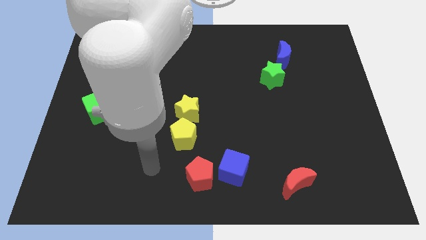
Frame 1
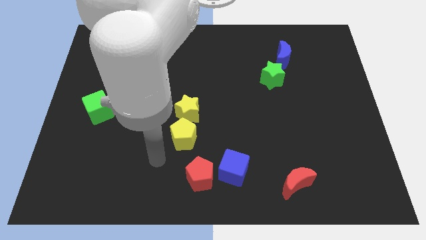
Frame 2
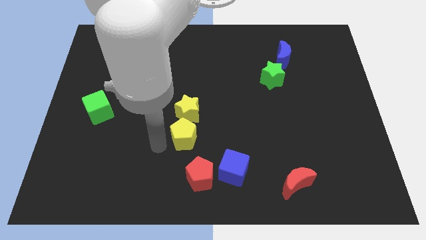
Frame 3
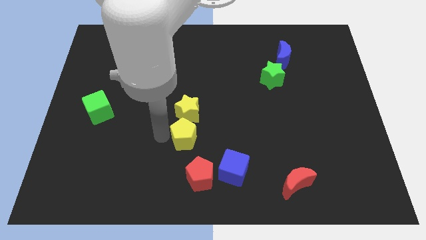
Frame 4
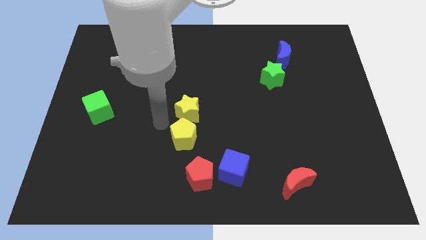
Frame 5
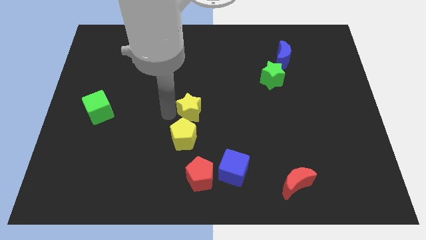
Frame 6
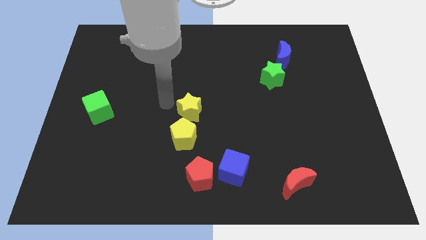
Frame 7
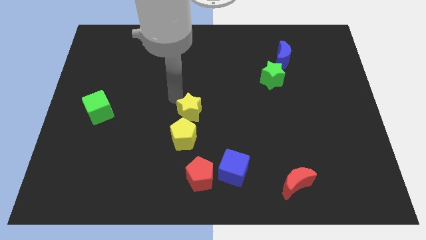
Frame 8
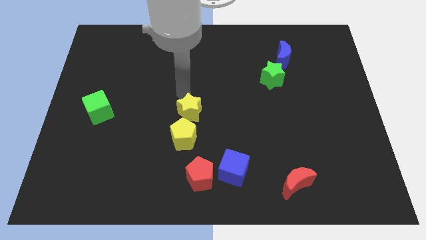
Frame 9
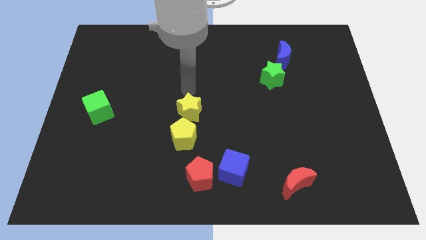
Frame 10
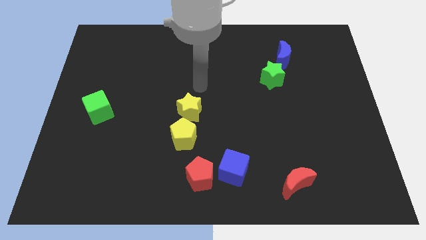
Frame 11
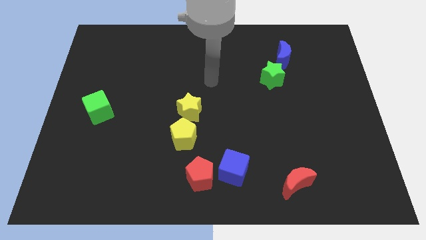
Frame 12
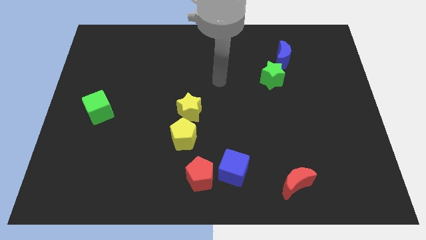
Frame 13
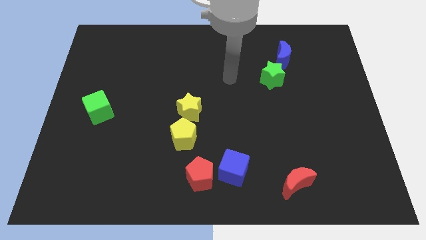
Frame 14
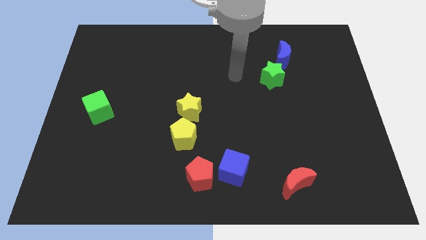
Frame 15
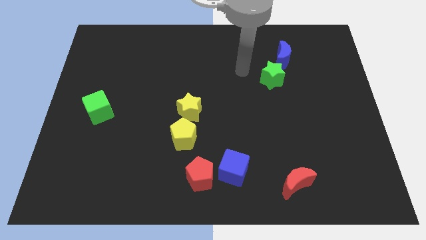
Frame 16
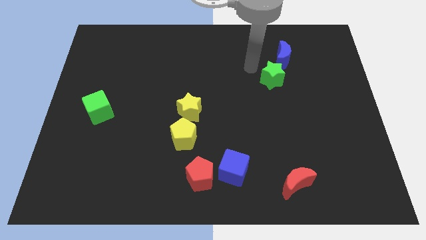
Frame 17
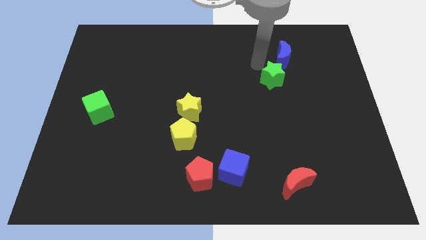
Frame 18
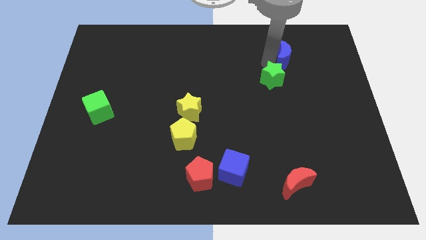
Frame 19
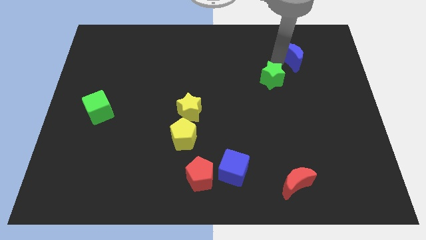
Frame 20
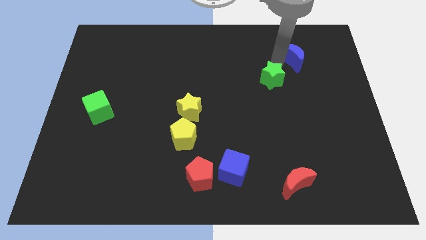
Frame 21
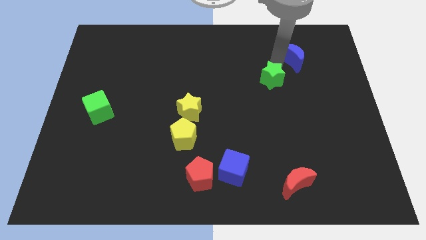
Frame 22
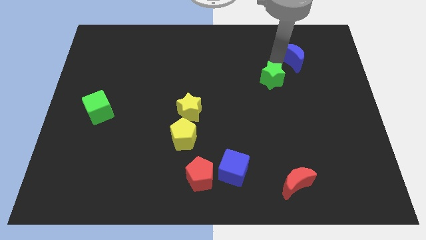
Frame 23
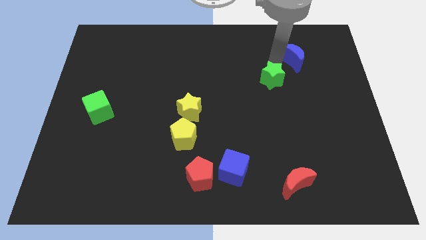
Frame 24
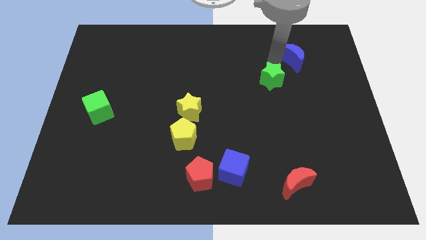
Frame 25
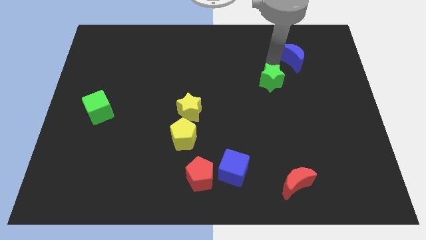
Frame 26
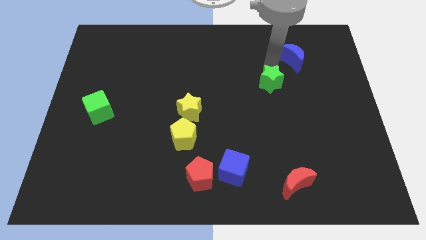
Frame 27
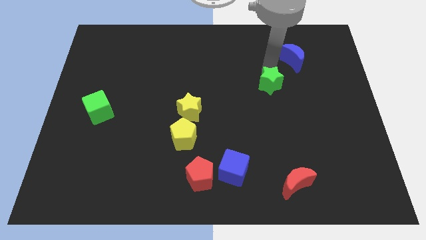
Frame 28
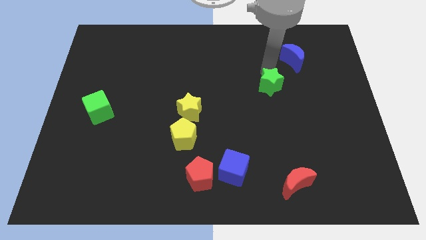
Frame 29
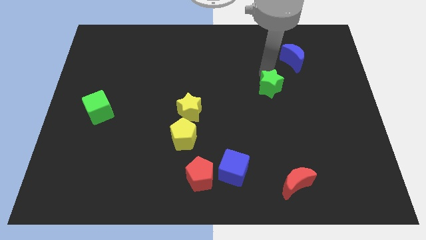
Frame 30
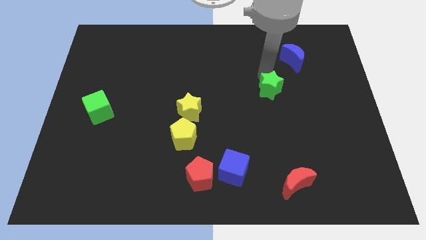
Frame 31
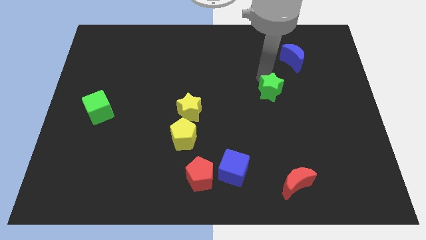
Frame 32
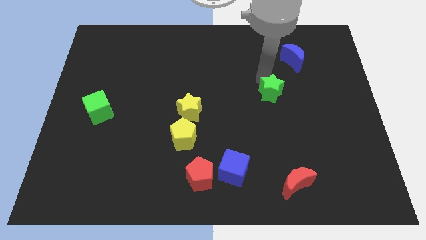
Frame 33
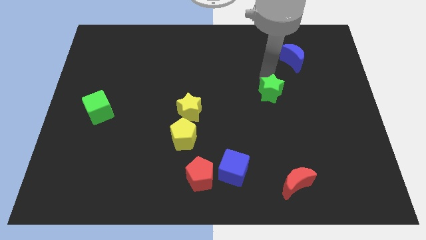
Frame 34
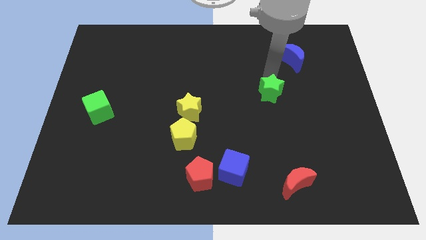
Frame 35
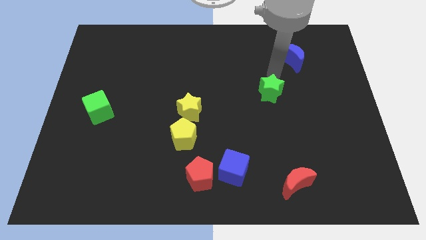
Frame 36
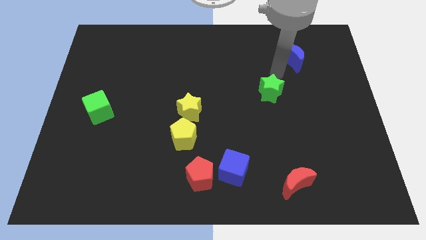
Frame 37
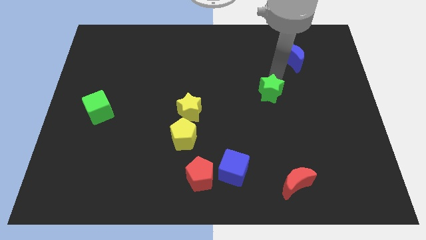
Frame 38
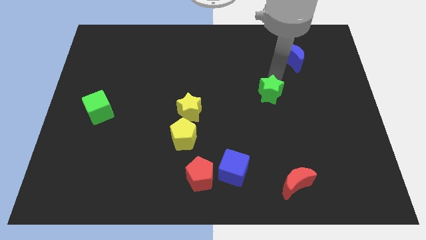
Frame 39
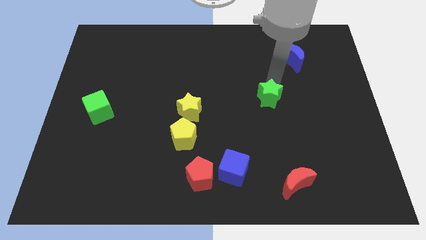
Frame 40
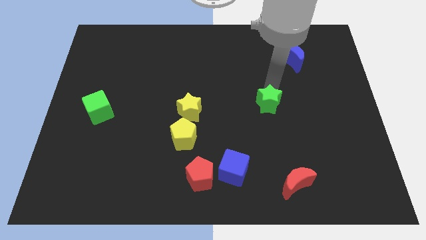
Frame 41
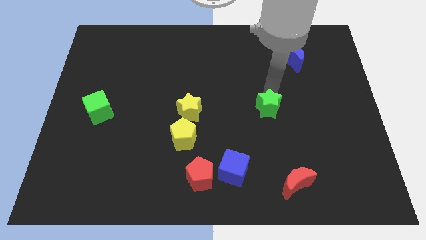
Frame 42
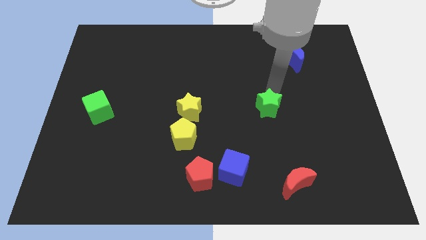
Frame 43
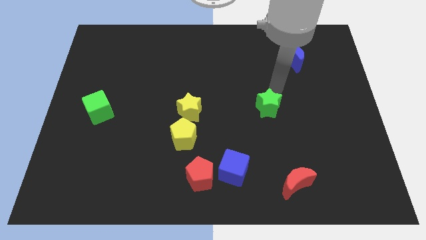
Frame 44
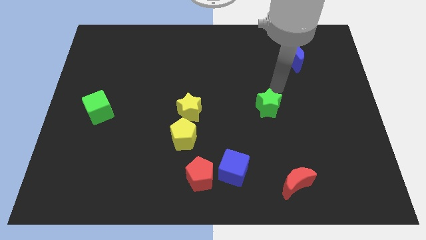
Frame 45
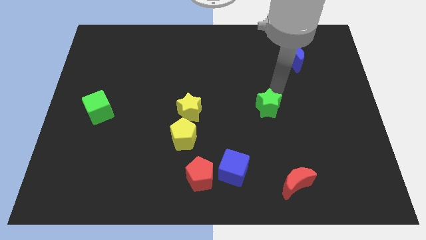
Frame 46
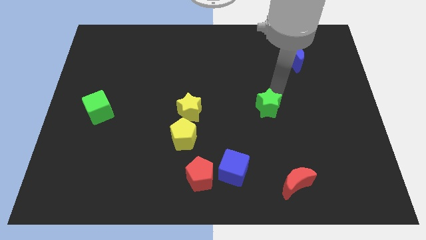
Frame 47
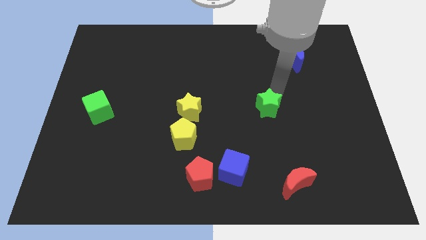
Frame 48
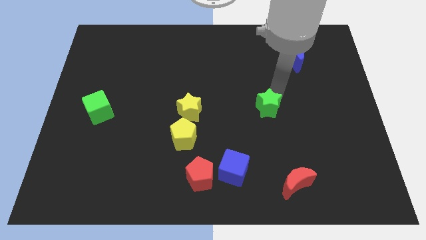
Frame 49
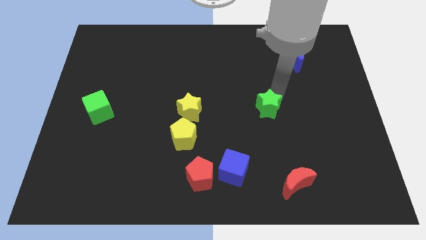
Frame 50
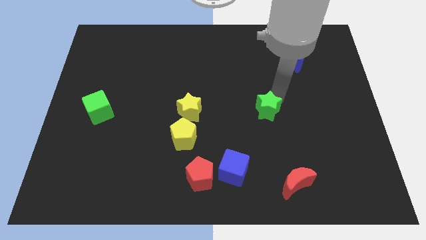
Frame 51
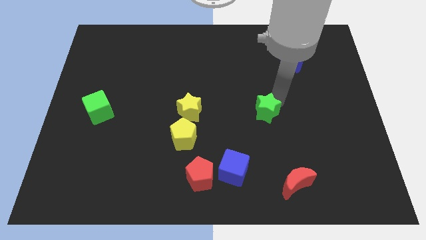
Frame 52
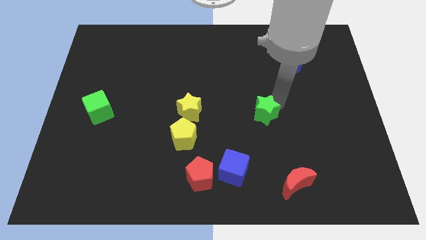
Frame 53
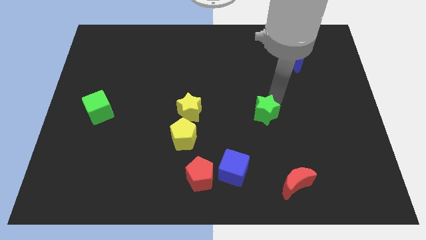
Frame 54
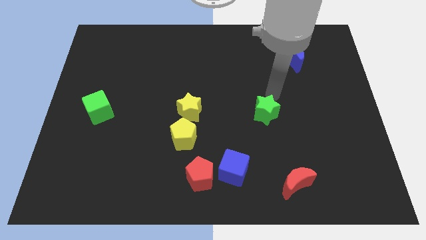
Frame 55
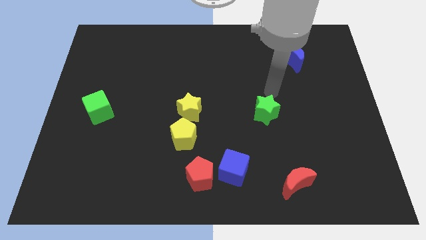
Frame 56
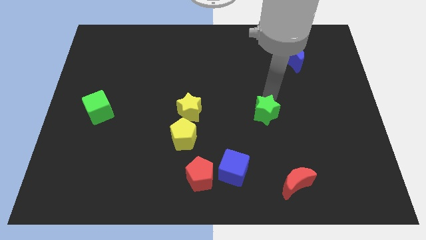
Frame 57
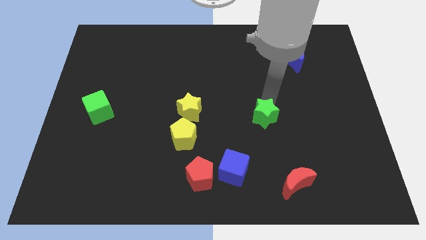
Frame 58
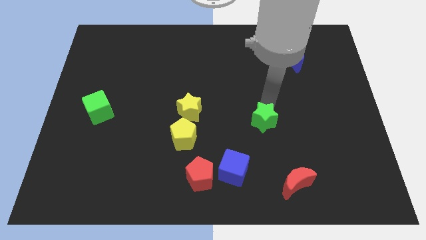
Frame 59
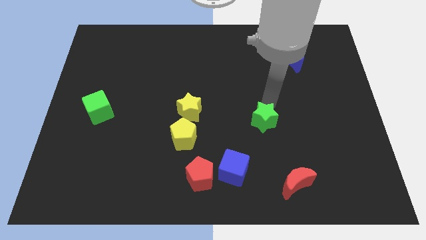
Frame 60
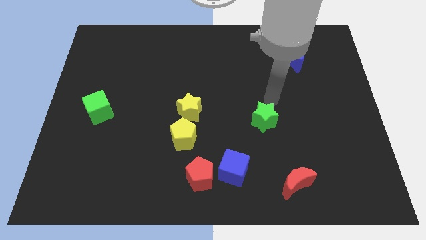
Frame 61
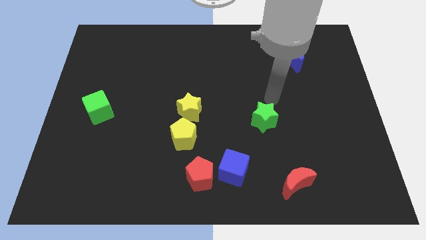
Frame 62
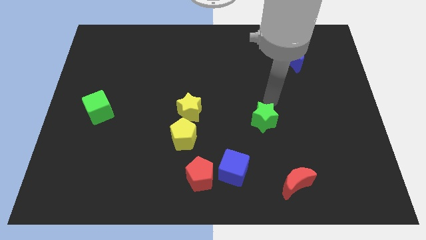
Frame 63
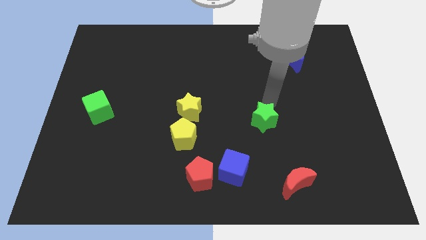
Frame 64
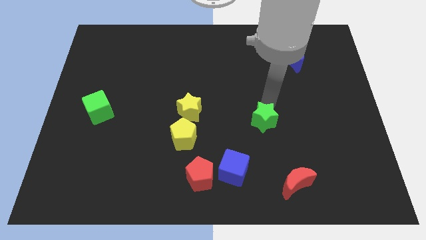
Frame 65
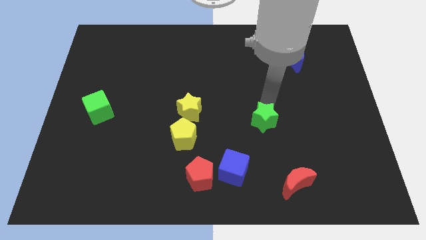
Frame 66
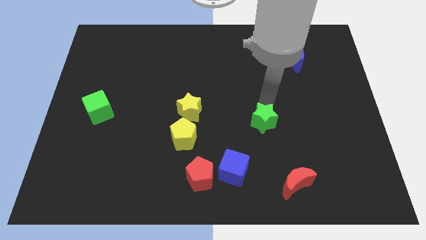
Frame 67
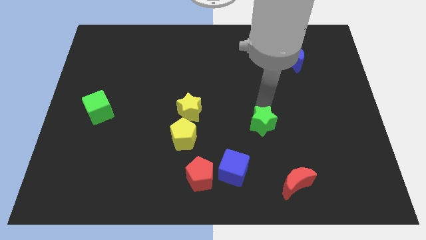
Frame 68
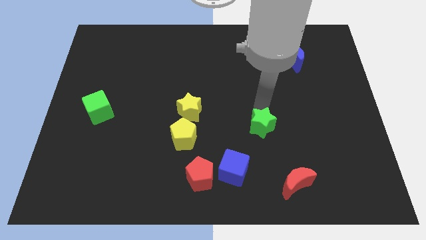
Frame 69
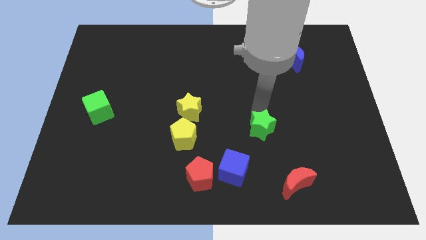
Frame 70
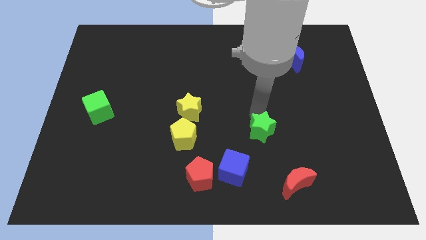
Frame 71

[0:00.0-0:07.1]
slide the green star diagonally up and to the right of the blue cube
